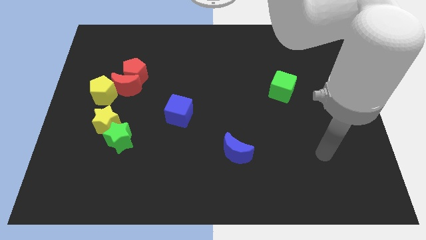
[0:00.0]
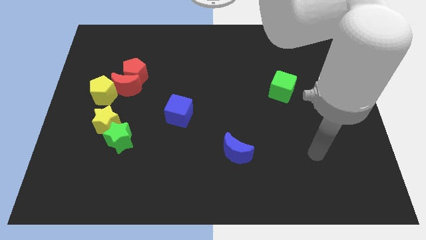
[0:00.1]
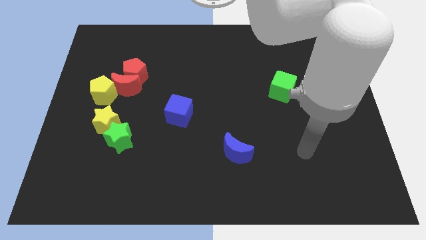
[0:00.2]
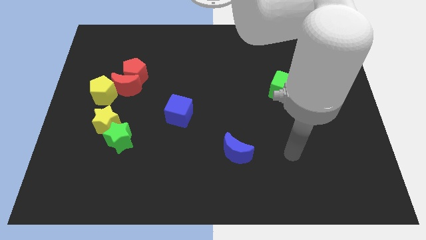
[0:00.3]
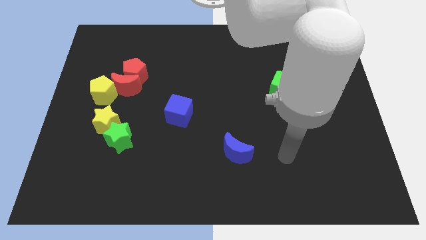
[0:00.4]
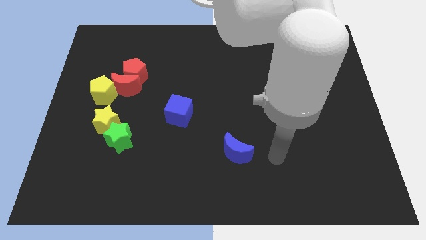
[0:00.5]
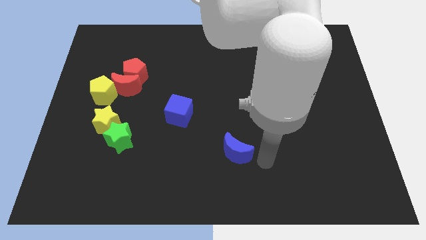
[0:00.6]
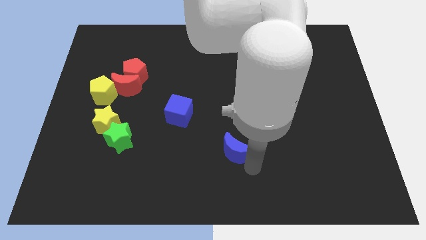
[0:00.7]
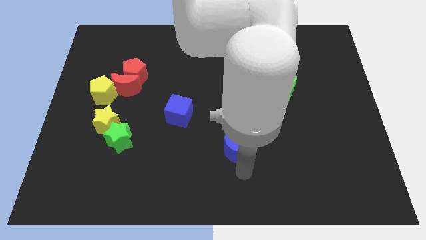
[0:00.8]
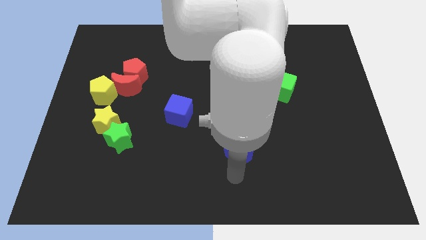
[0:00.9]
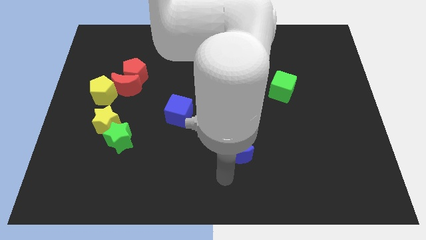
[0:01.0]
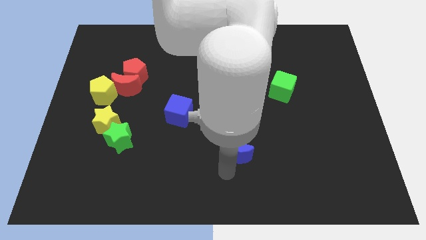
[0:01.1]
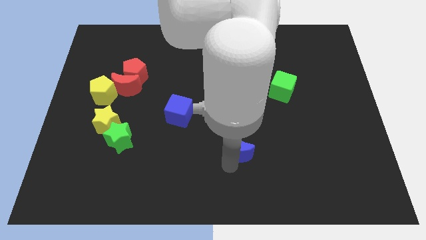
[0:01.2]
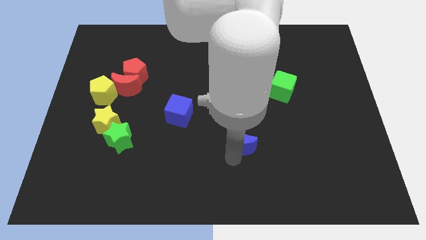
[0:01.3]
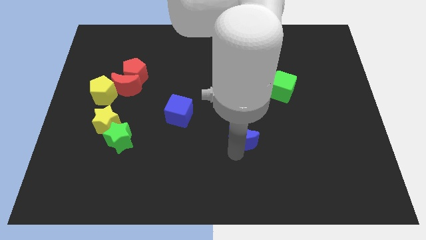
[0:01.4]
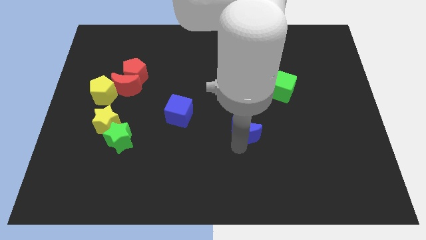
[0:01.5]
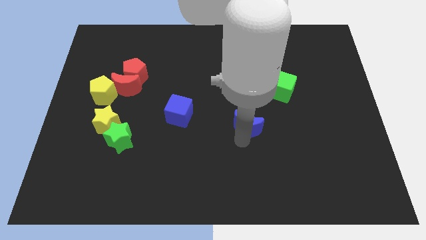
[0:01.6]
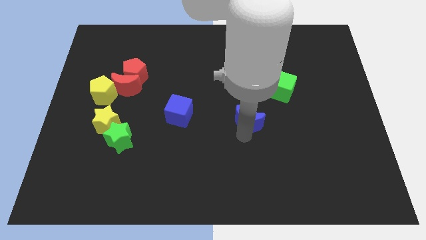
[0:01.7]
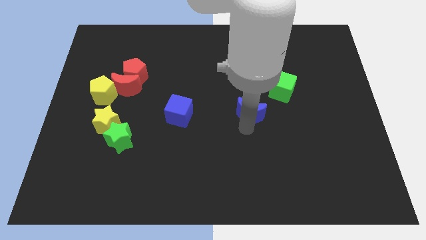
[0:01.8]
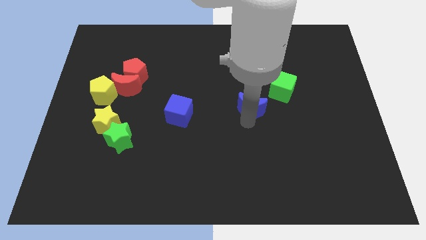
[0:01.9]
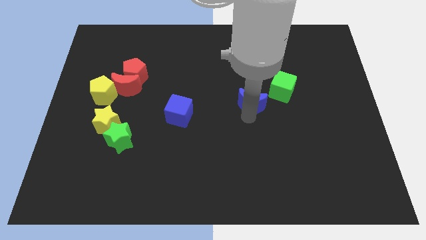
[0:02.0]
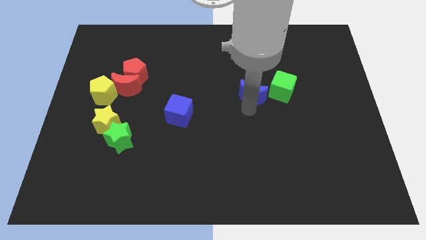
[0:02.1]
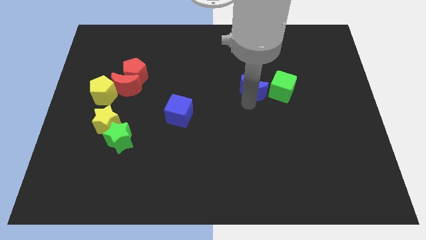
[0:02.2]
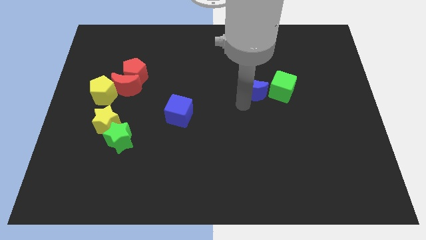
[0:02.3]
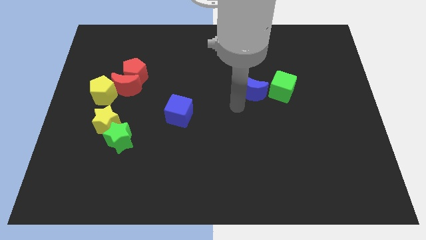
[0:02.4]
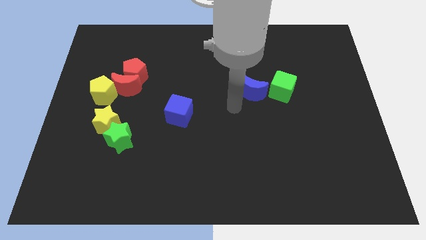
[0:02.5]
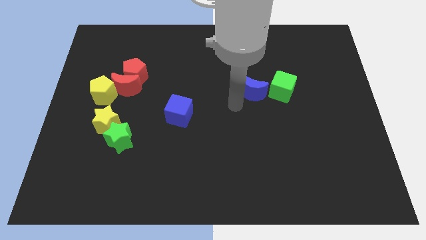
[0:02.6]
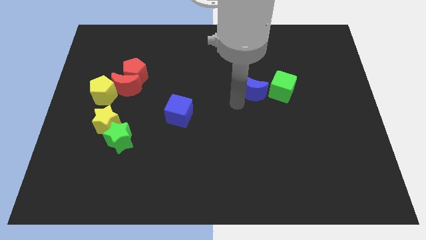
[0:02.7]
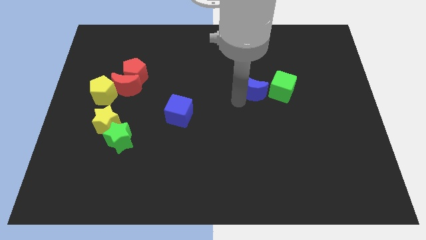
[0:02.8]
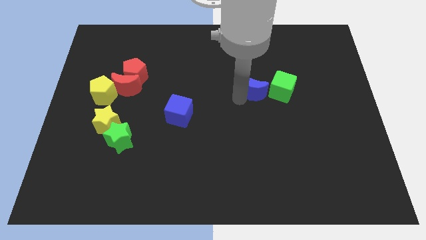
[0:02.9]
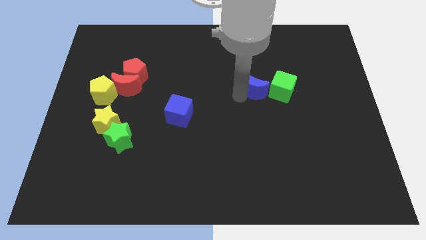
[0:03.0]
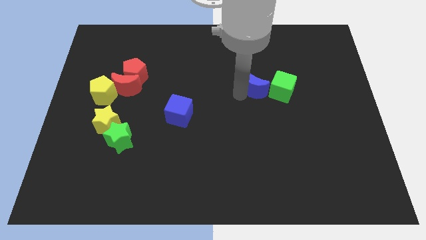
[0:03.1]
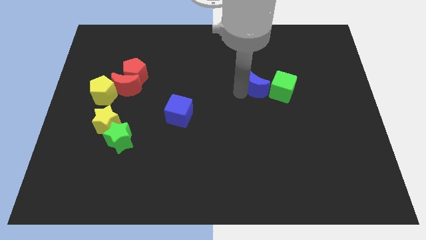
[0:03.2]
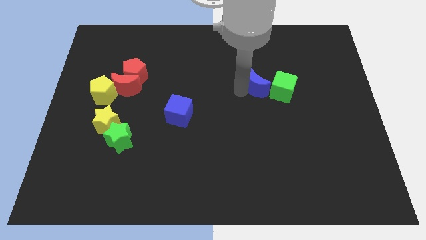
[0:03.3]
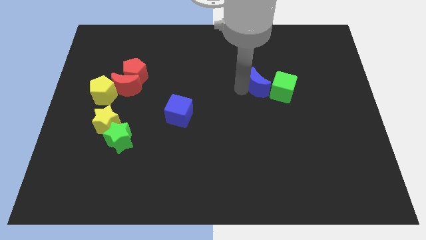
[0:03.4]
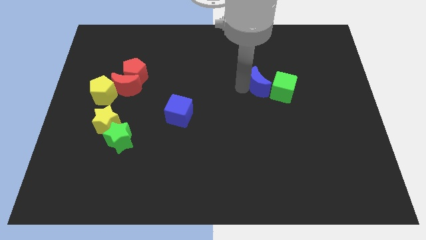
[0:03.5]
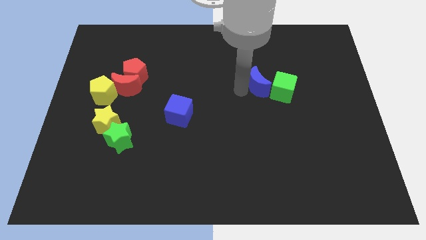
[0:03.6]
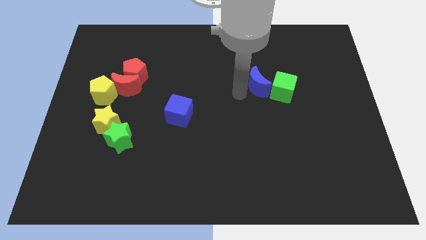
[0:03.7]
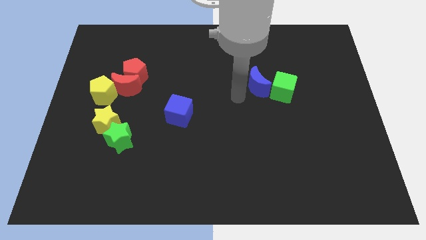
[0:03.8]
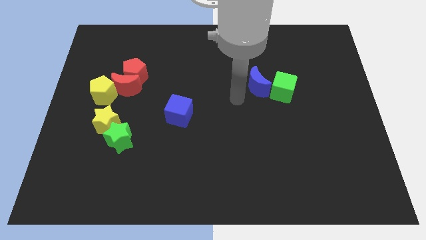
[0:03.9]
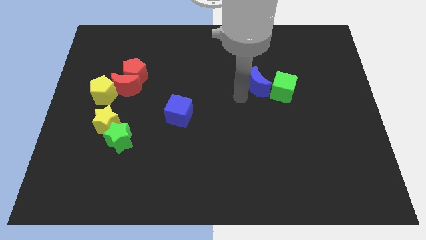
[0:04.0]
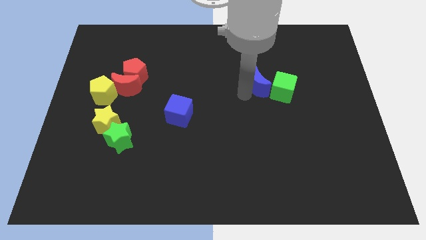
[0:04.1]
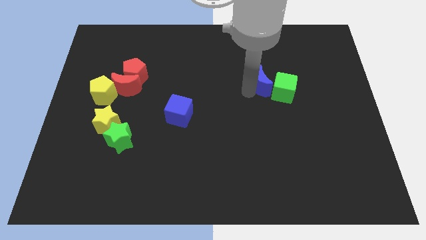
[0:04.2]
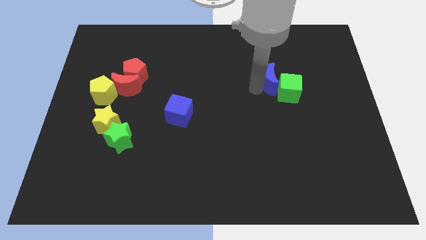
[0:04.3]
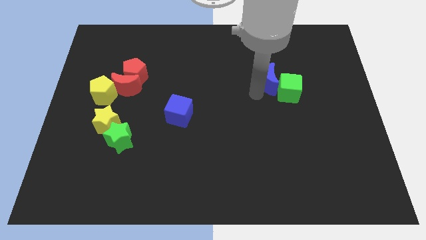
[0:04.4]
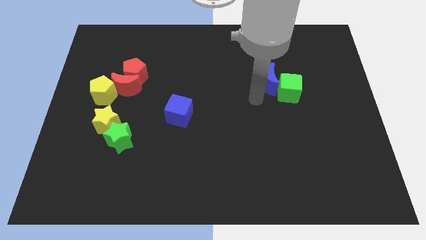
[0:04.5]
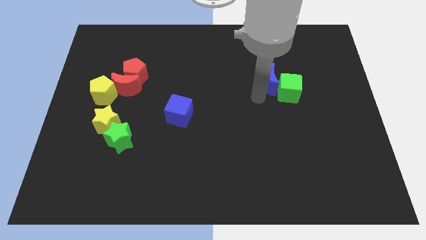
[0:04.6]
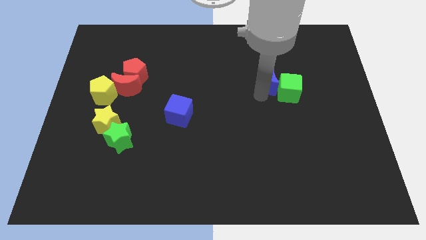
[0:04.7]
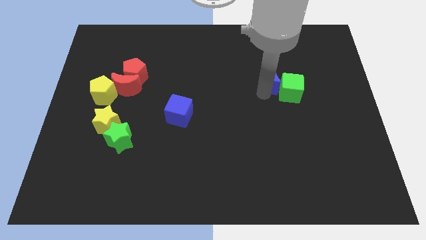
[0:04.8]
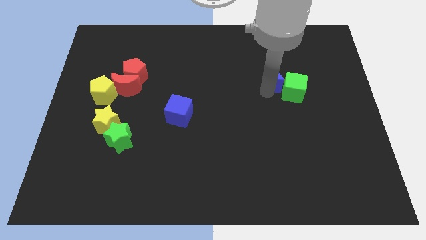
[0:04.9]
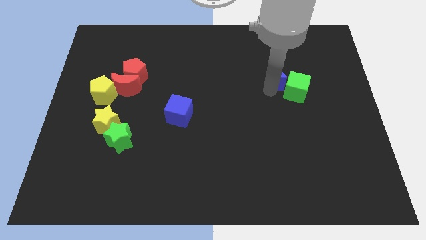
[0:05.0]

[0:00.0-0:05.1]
put the blue moon to the top of the green cube
